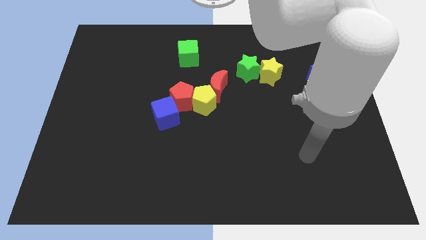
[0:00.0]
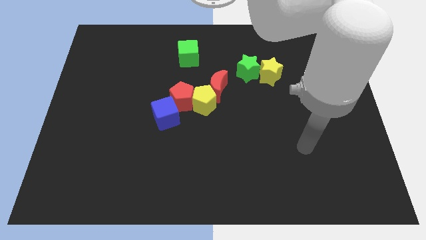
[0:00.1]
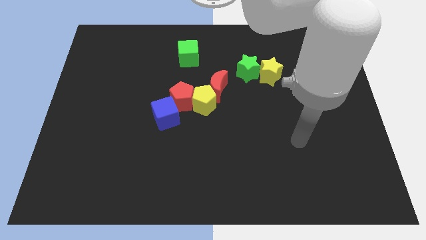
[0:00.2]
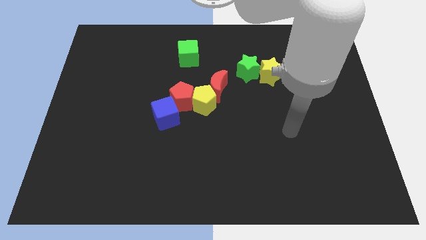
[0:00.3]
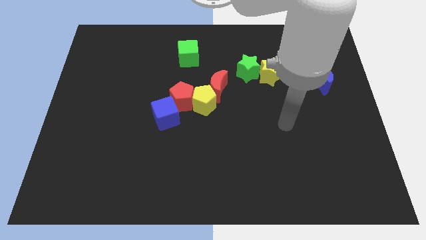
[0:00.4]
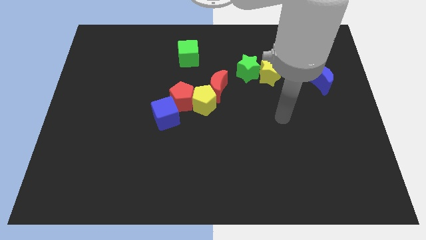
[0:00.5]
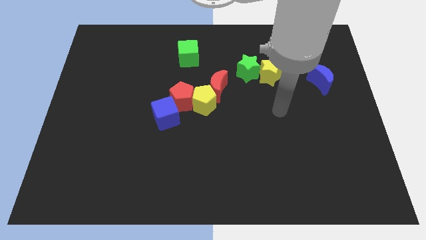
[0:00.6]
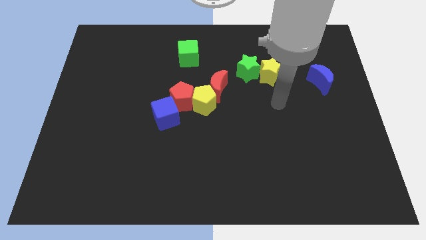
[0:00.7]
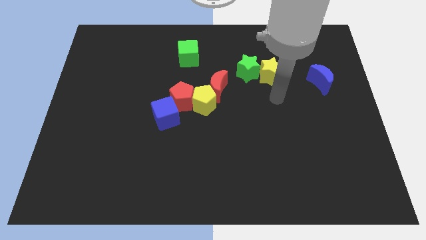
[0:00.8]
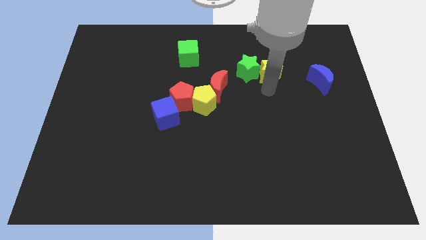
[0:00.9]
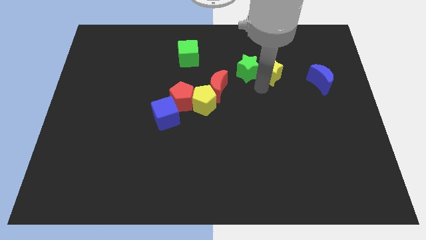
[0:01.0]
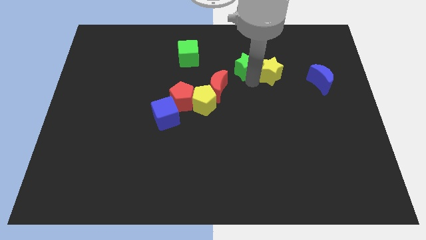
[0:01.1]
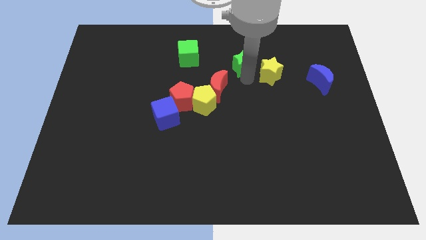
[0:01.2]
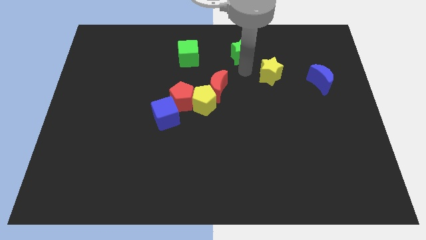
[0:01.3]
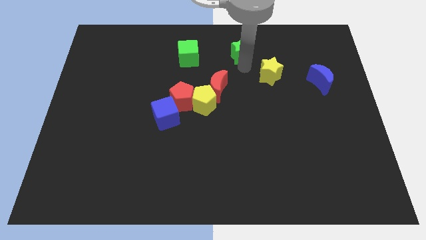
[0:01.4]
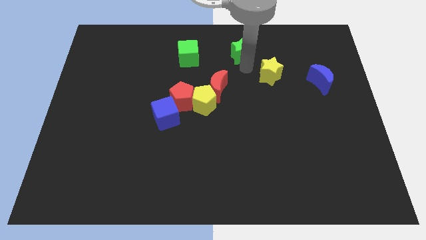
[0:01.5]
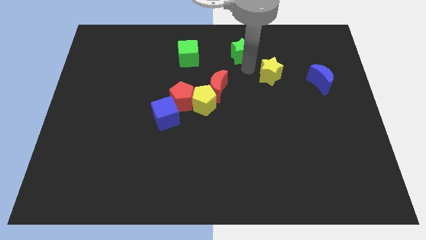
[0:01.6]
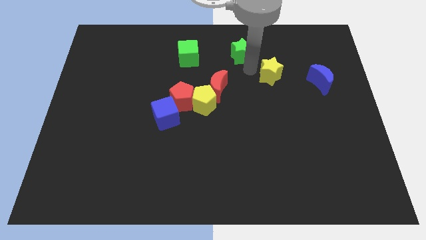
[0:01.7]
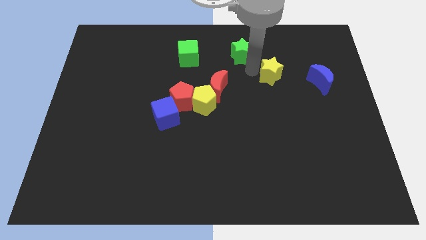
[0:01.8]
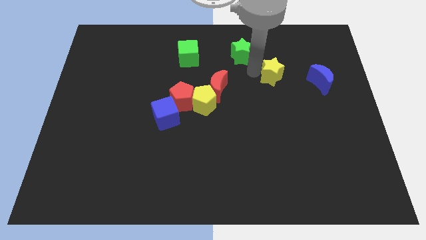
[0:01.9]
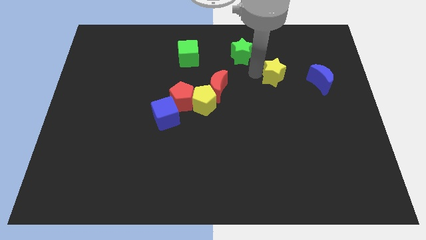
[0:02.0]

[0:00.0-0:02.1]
separate the yellow star from the green star

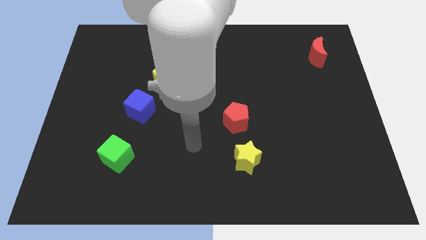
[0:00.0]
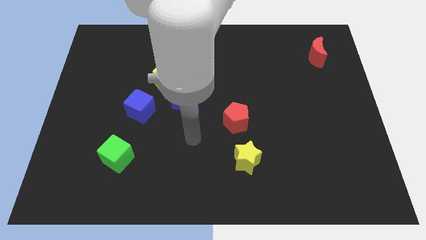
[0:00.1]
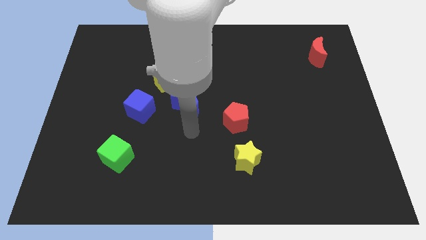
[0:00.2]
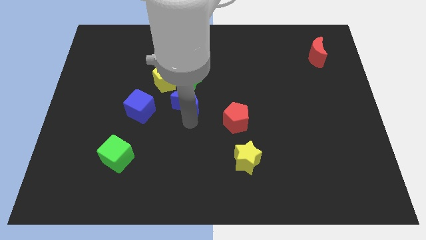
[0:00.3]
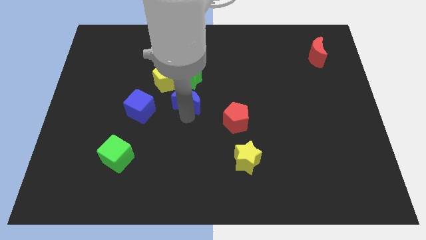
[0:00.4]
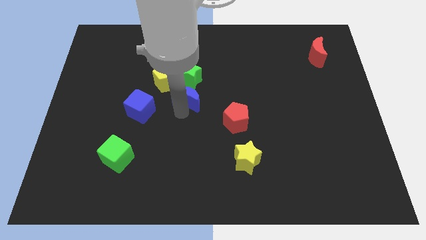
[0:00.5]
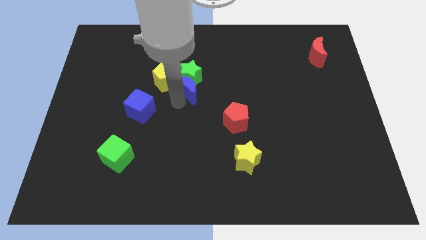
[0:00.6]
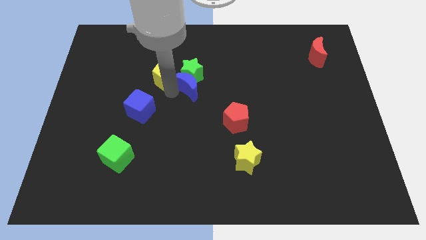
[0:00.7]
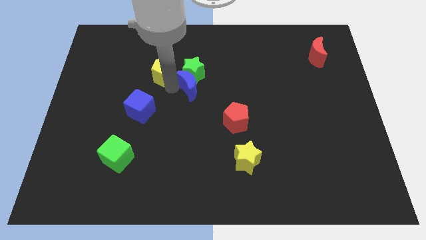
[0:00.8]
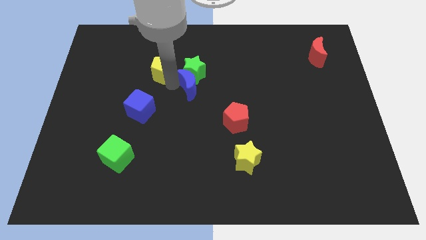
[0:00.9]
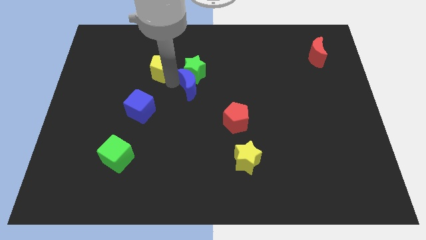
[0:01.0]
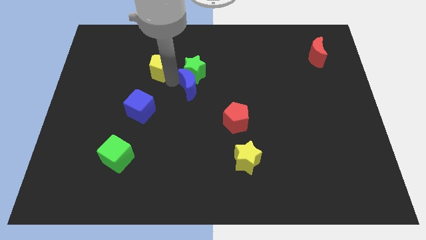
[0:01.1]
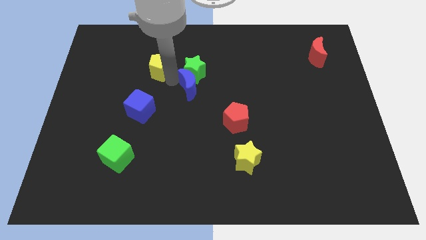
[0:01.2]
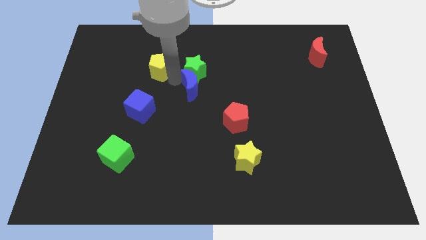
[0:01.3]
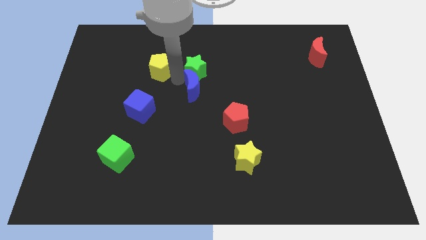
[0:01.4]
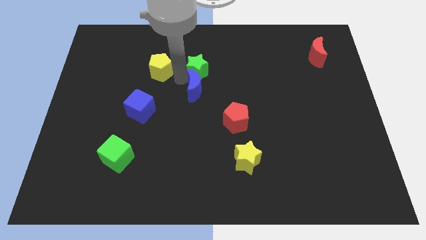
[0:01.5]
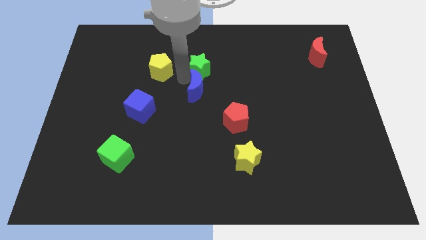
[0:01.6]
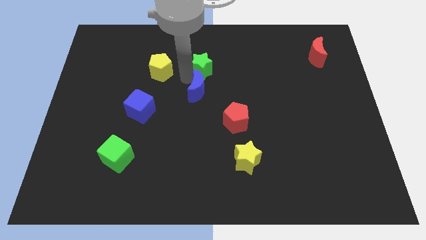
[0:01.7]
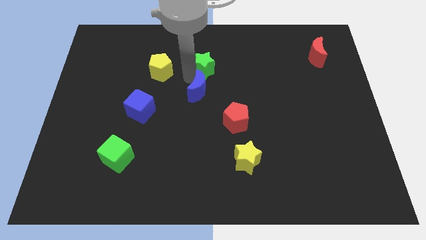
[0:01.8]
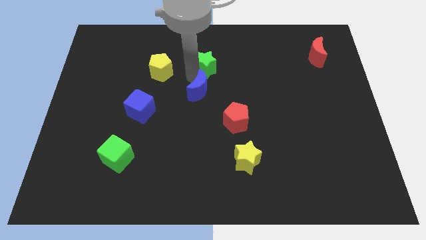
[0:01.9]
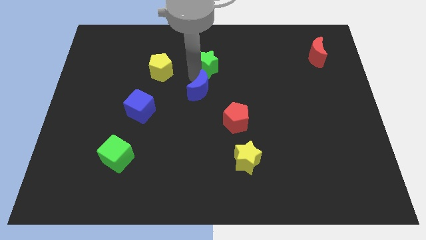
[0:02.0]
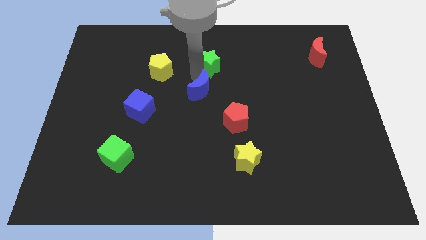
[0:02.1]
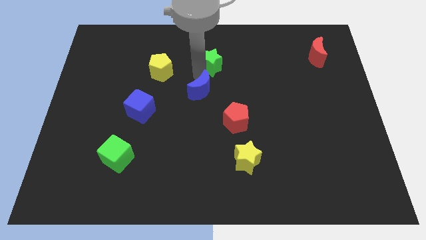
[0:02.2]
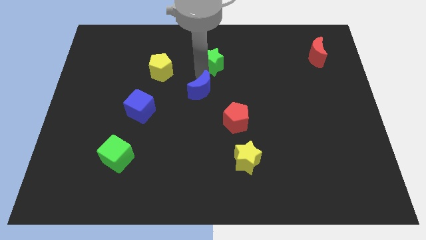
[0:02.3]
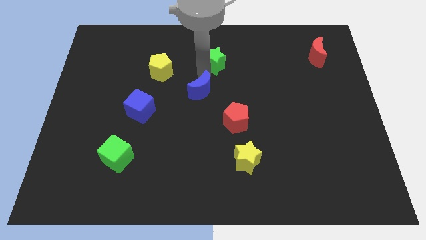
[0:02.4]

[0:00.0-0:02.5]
pull the green star apart from the yellow pentagon and blue moon

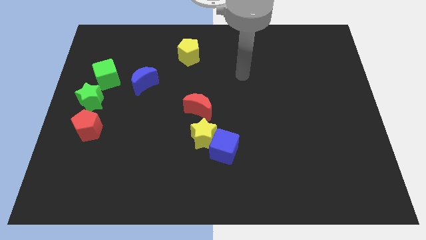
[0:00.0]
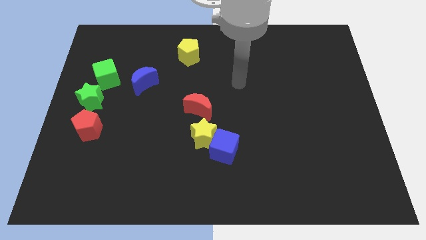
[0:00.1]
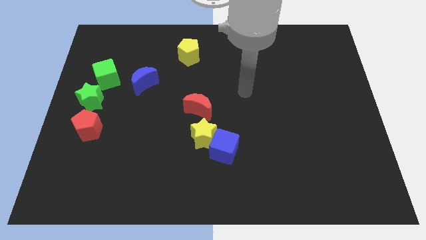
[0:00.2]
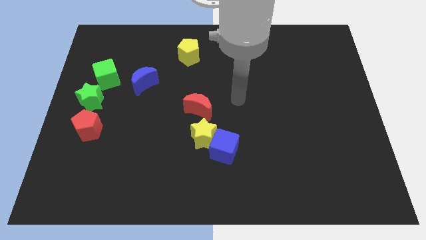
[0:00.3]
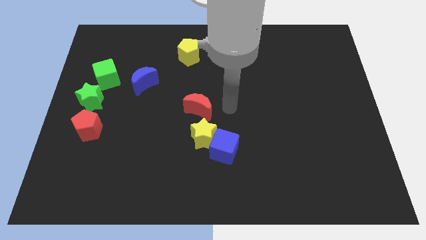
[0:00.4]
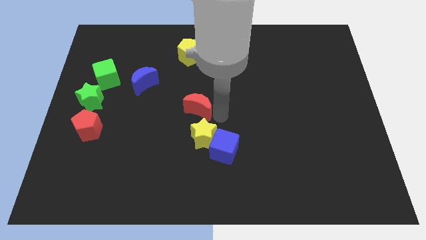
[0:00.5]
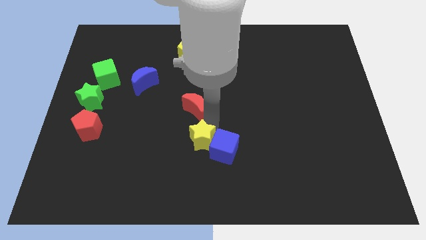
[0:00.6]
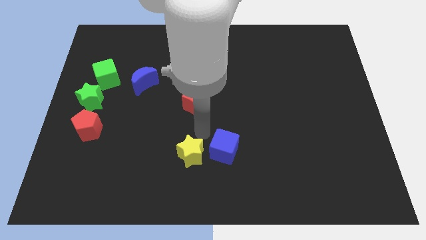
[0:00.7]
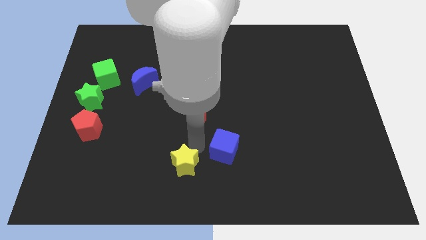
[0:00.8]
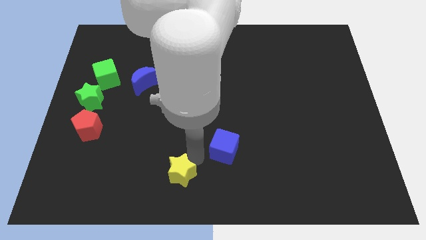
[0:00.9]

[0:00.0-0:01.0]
move the blue cube away from the yellow star

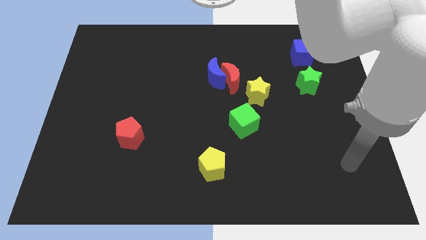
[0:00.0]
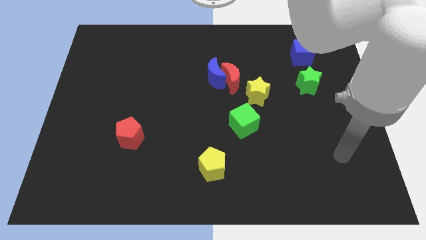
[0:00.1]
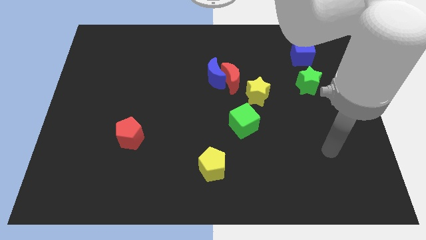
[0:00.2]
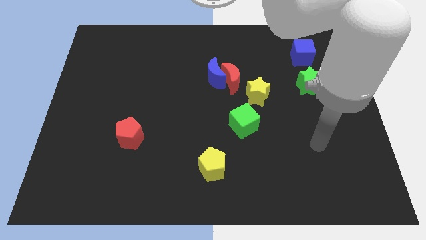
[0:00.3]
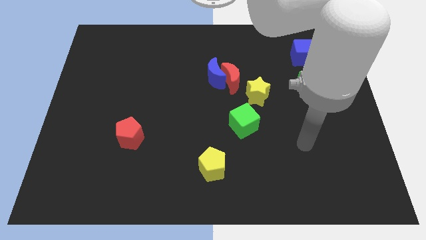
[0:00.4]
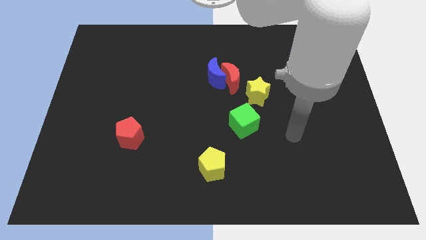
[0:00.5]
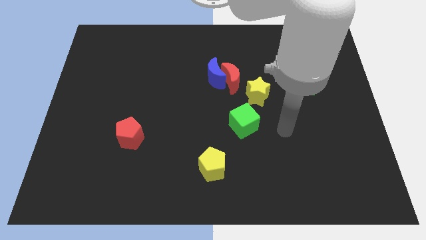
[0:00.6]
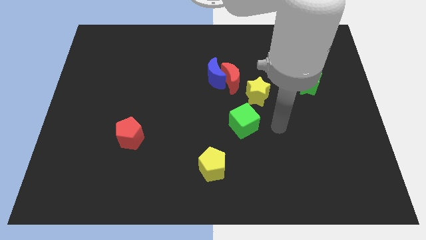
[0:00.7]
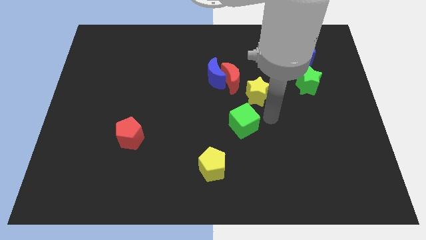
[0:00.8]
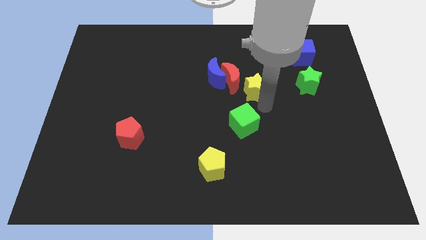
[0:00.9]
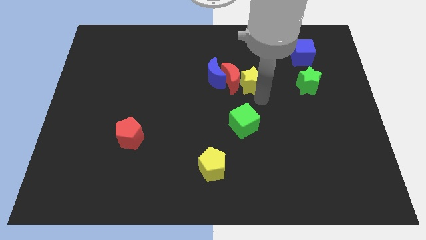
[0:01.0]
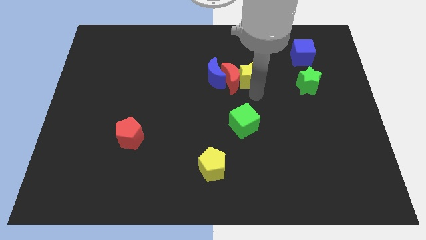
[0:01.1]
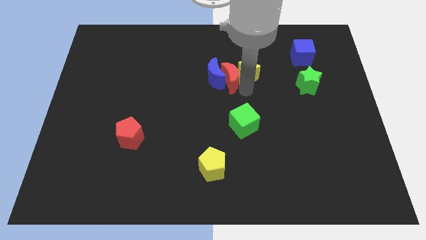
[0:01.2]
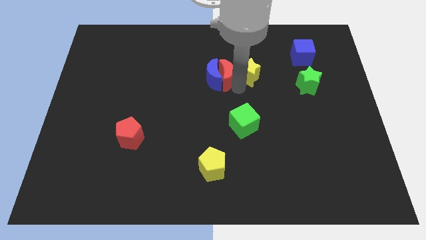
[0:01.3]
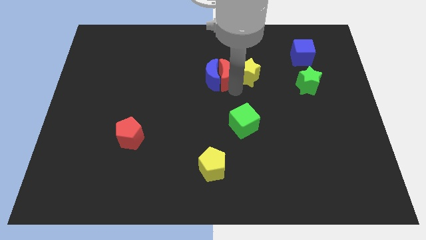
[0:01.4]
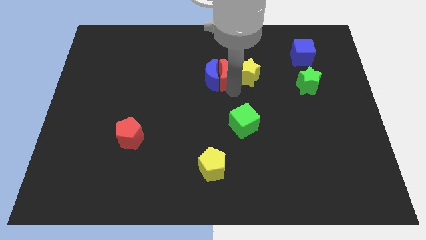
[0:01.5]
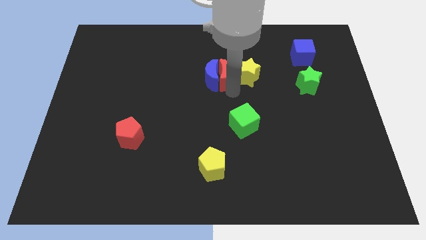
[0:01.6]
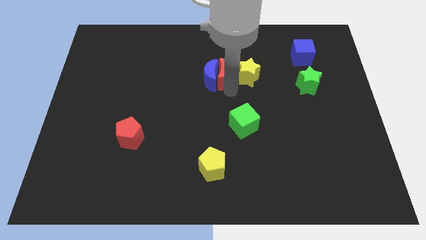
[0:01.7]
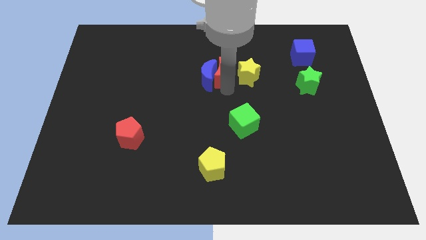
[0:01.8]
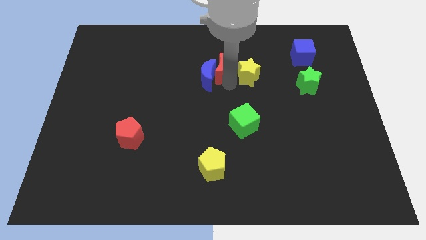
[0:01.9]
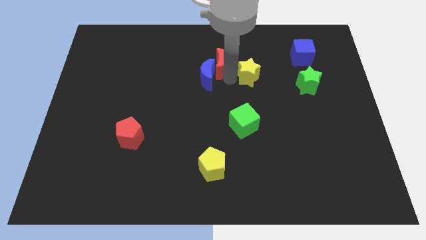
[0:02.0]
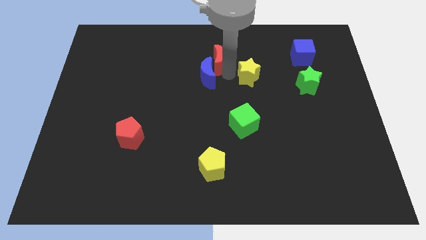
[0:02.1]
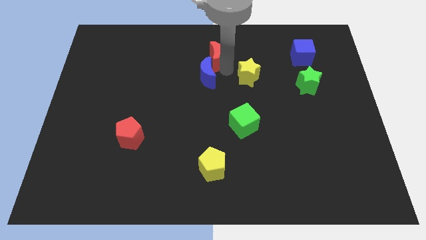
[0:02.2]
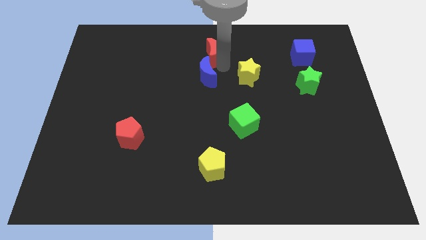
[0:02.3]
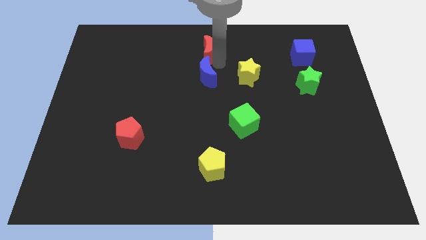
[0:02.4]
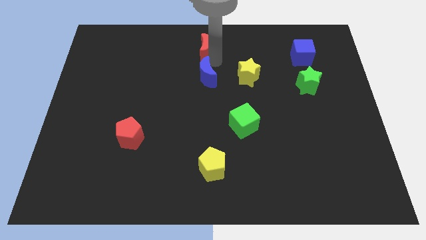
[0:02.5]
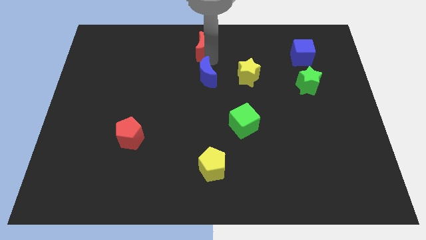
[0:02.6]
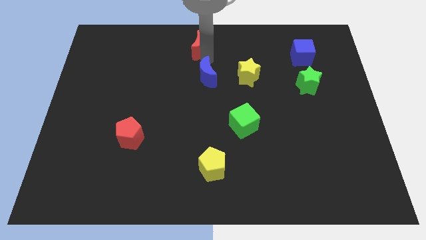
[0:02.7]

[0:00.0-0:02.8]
move the blue moon away from the red moon

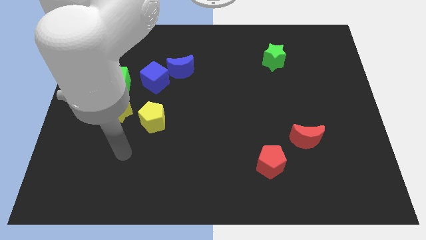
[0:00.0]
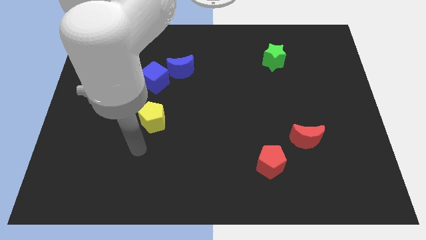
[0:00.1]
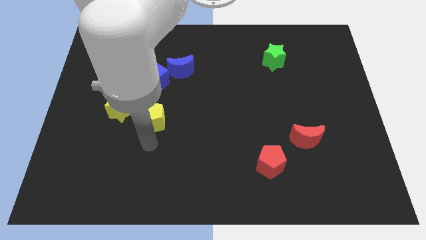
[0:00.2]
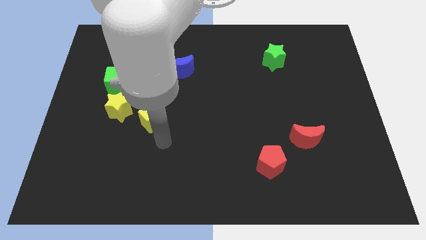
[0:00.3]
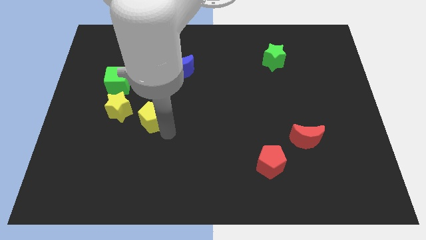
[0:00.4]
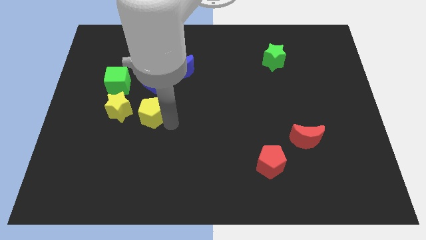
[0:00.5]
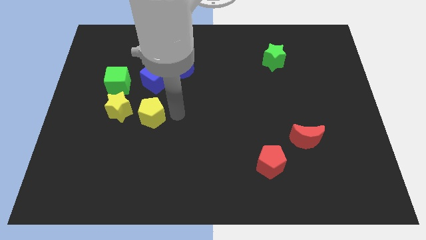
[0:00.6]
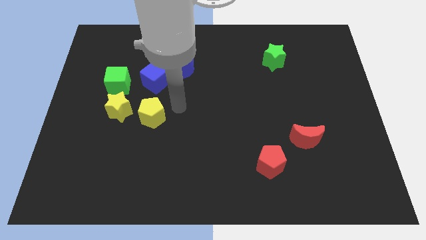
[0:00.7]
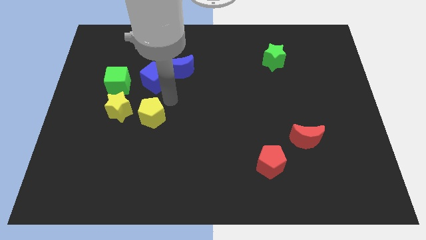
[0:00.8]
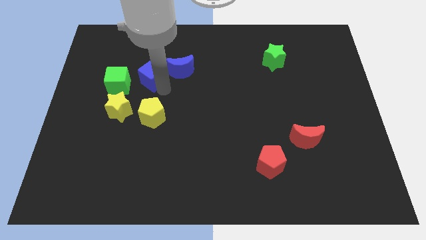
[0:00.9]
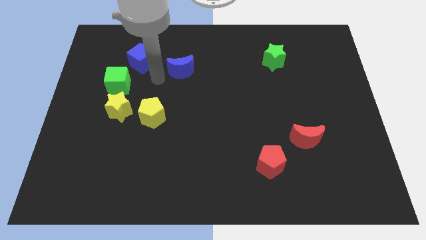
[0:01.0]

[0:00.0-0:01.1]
move the blue moon away from the blue cube
